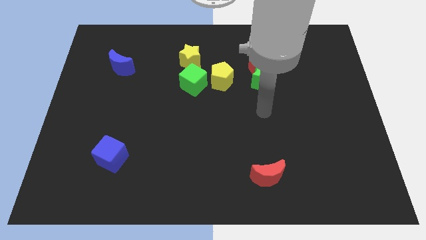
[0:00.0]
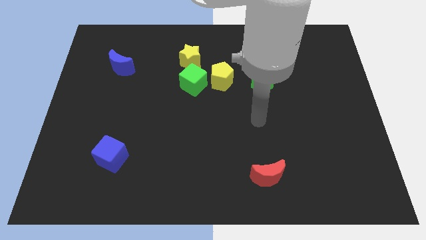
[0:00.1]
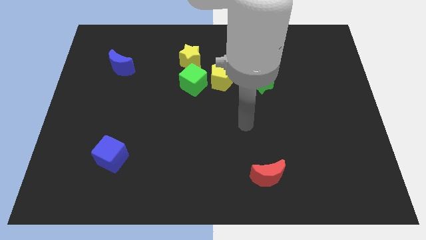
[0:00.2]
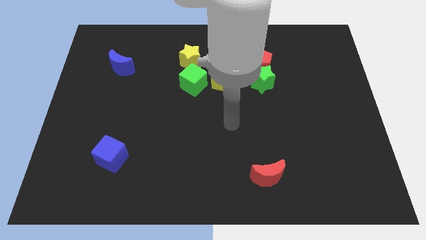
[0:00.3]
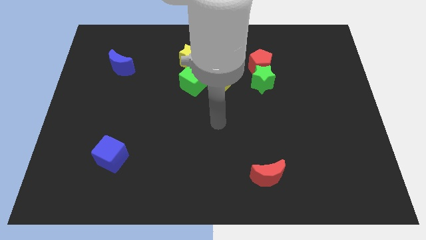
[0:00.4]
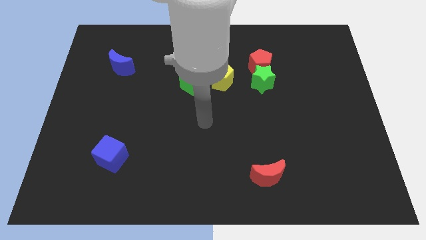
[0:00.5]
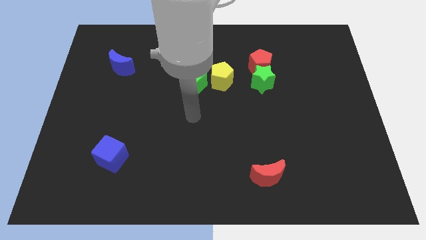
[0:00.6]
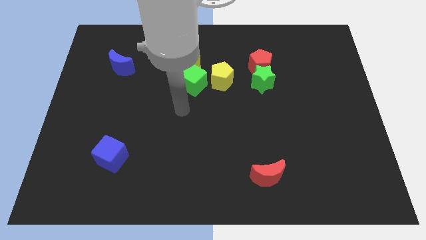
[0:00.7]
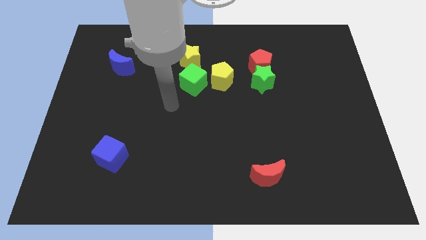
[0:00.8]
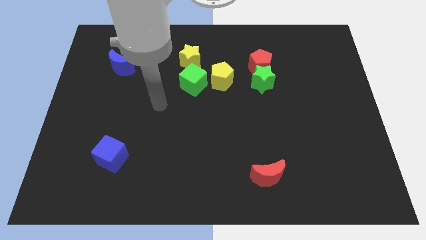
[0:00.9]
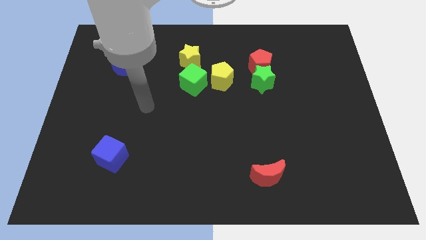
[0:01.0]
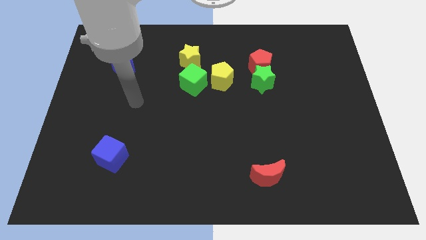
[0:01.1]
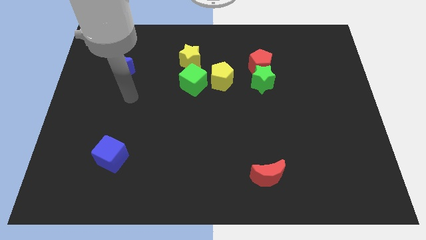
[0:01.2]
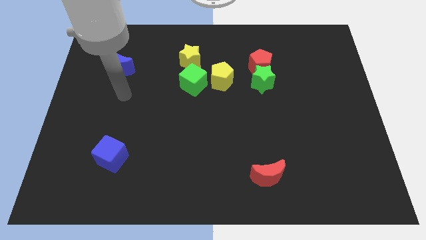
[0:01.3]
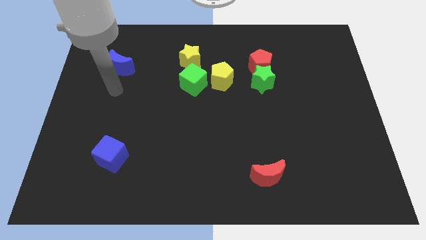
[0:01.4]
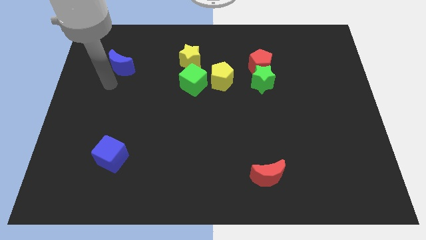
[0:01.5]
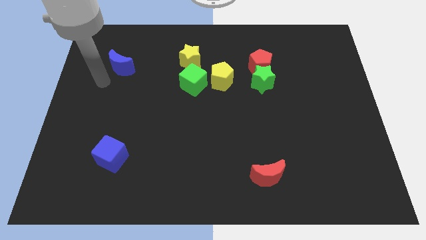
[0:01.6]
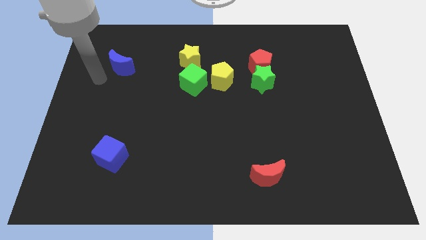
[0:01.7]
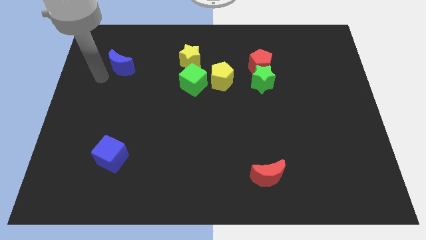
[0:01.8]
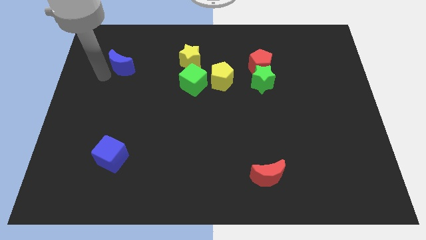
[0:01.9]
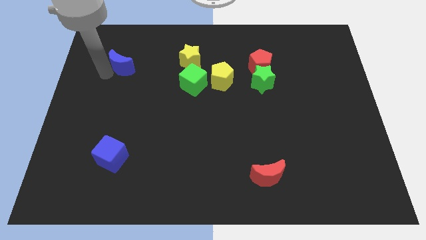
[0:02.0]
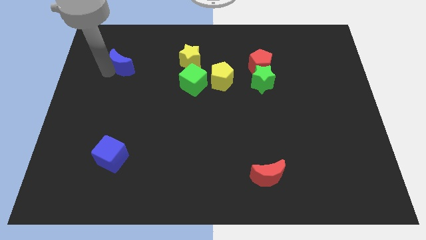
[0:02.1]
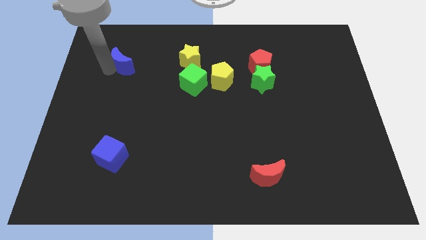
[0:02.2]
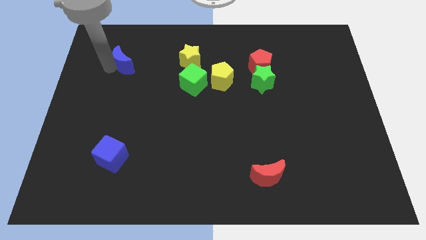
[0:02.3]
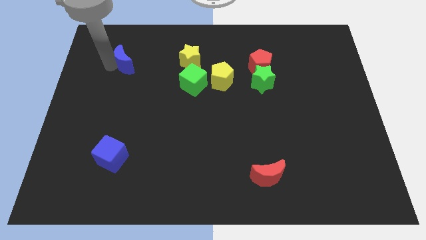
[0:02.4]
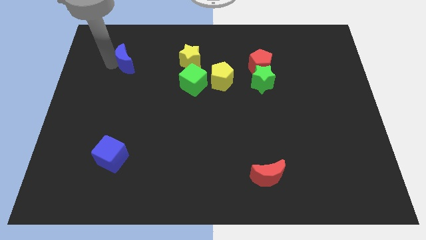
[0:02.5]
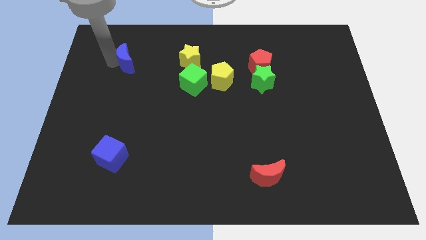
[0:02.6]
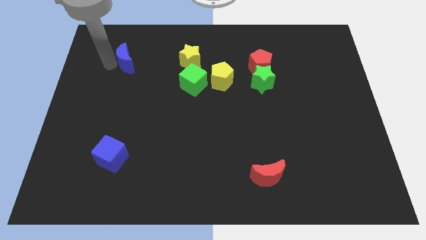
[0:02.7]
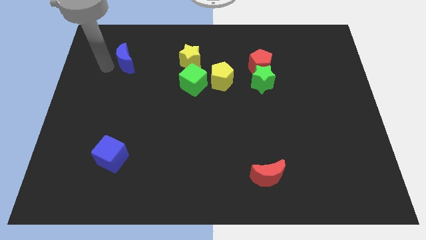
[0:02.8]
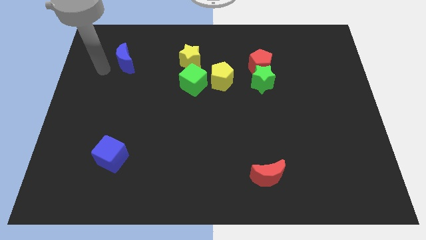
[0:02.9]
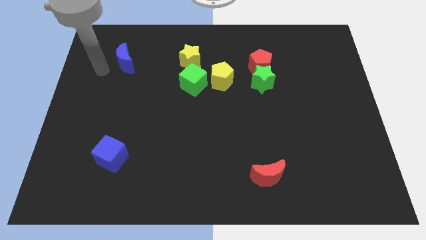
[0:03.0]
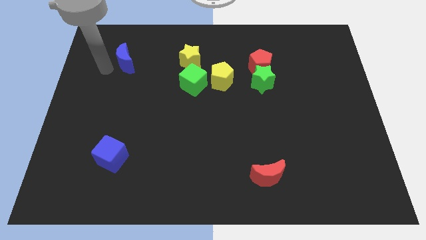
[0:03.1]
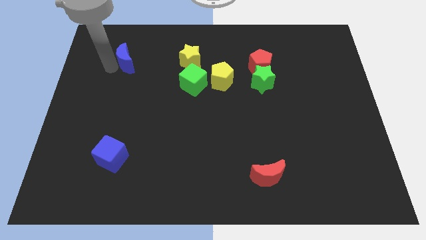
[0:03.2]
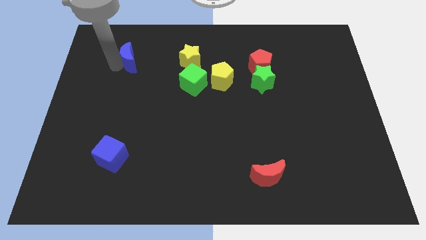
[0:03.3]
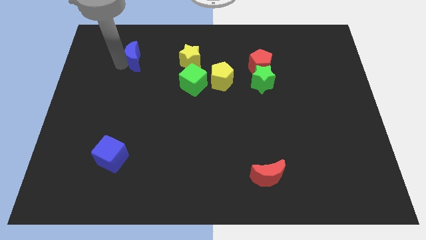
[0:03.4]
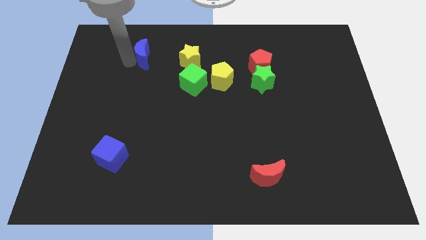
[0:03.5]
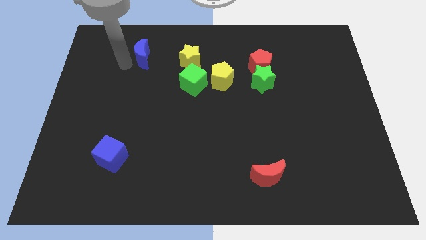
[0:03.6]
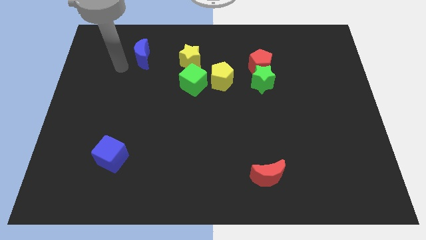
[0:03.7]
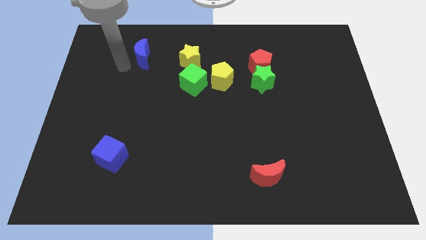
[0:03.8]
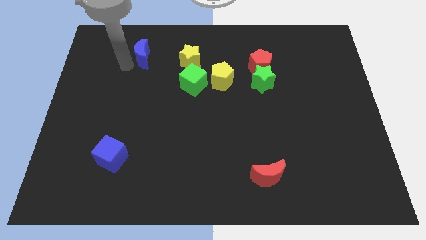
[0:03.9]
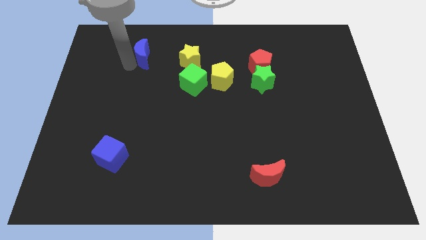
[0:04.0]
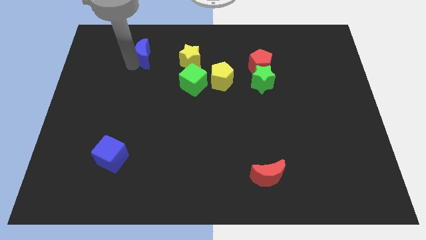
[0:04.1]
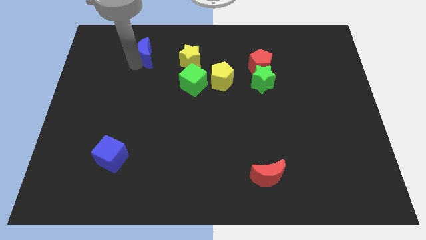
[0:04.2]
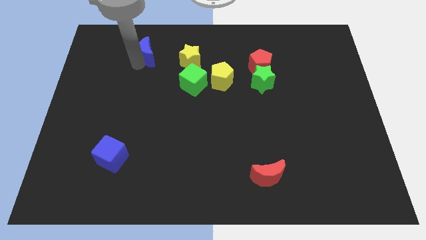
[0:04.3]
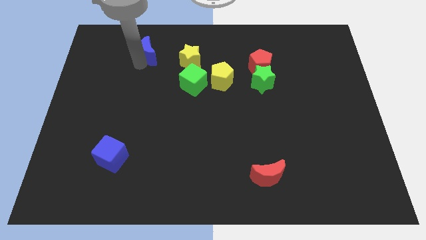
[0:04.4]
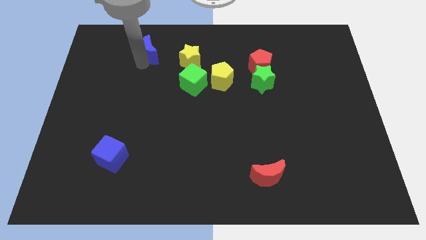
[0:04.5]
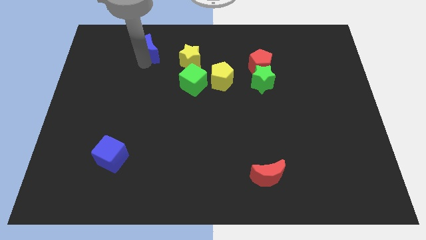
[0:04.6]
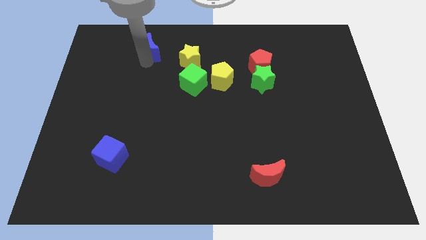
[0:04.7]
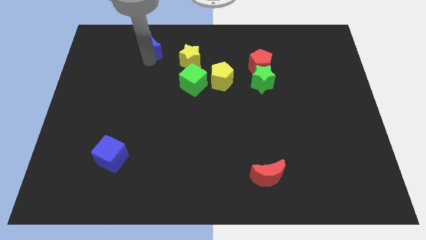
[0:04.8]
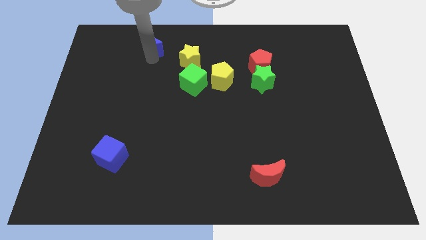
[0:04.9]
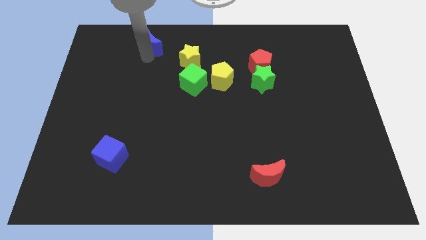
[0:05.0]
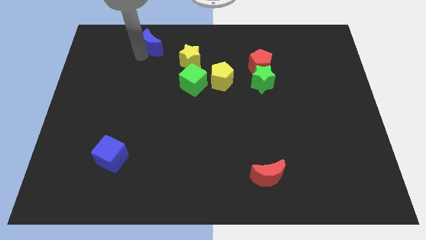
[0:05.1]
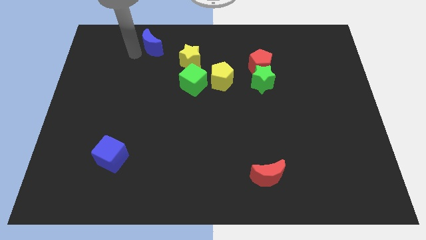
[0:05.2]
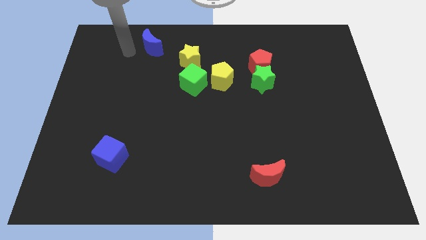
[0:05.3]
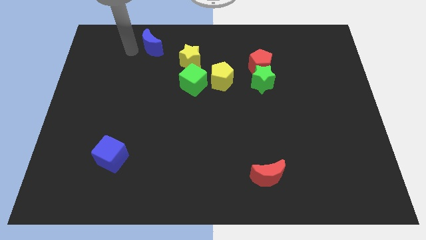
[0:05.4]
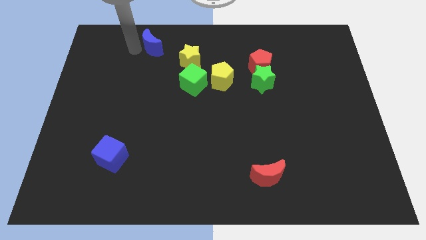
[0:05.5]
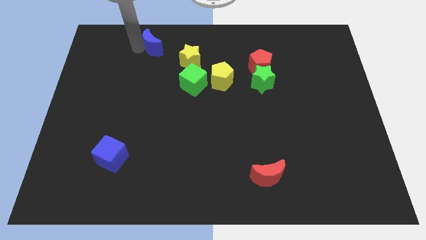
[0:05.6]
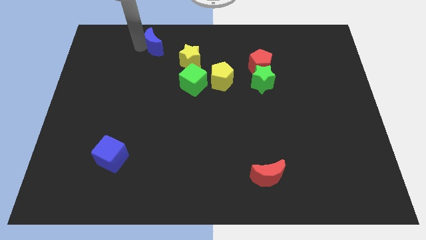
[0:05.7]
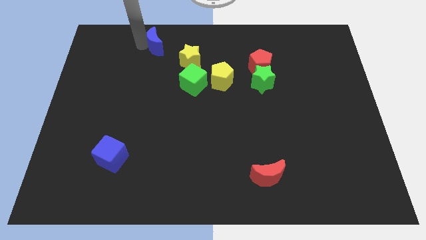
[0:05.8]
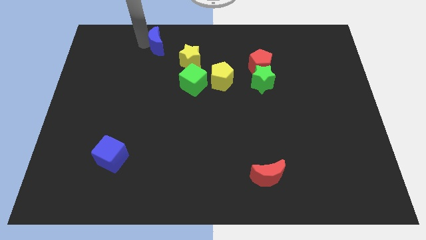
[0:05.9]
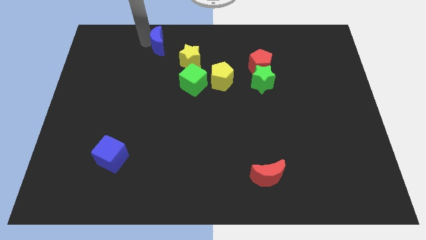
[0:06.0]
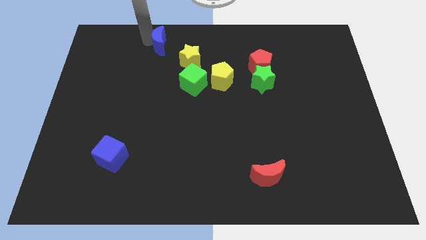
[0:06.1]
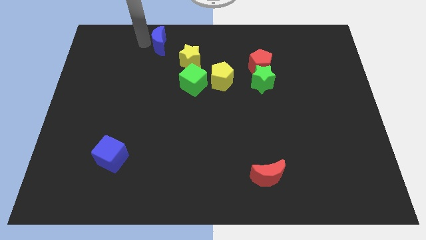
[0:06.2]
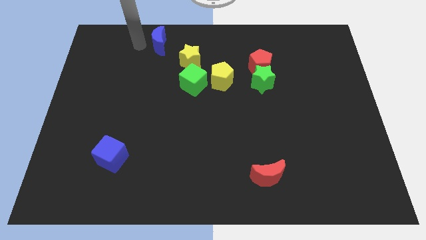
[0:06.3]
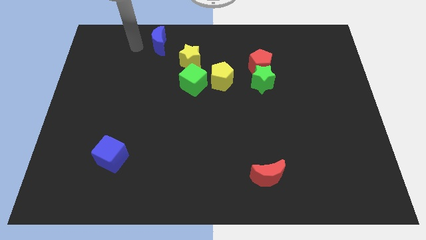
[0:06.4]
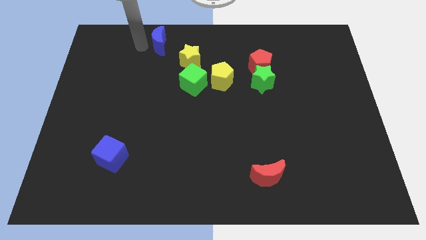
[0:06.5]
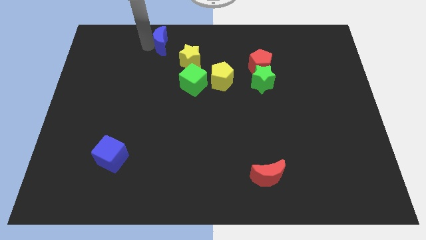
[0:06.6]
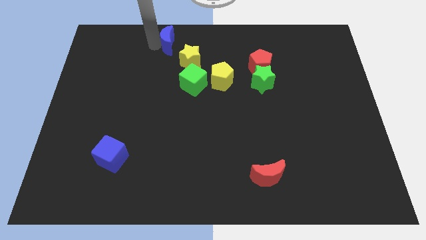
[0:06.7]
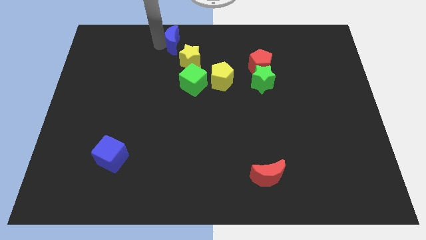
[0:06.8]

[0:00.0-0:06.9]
move the blue moon to the top
